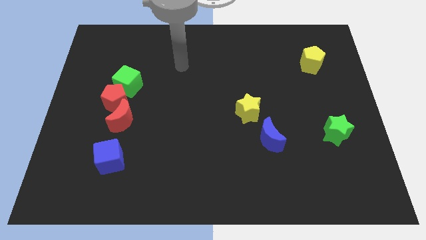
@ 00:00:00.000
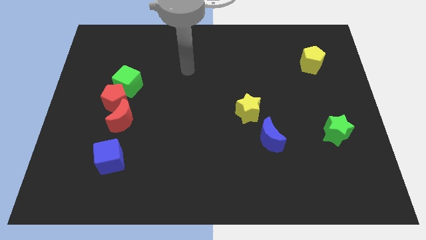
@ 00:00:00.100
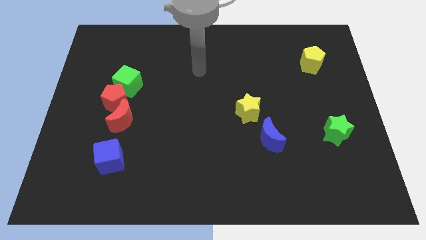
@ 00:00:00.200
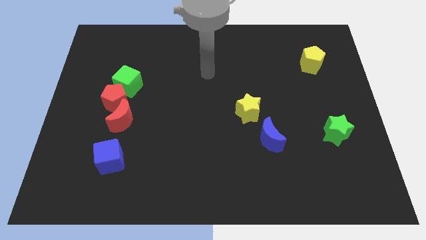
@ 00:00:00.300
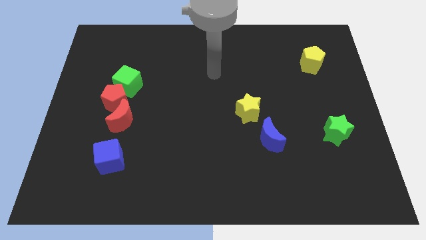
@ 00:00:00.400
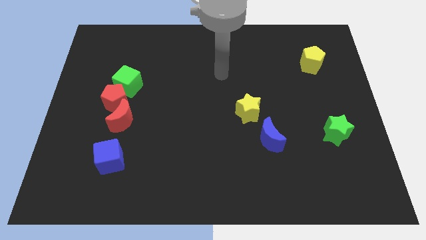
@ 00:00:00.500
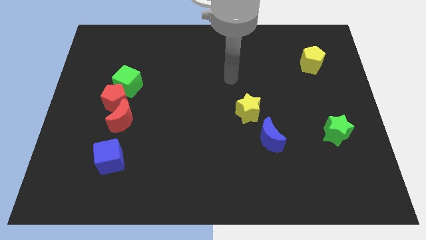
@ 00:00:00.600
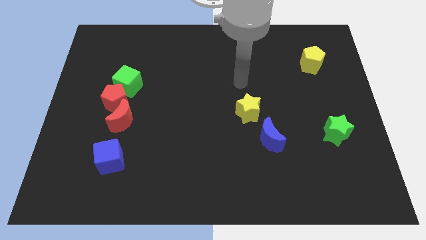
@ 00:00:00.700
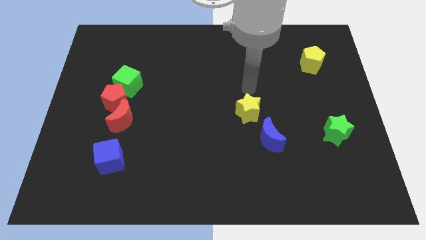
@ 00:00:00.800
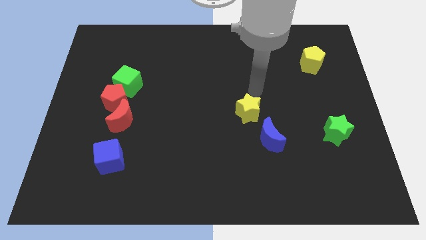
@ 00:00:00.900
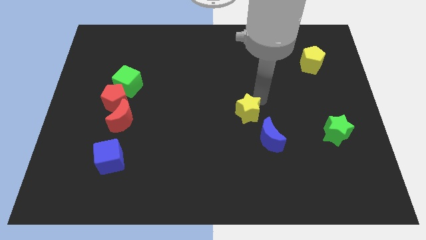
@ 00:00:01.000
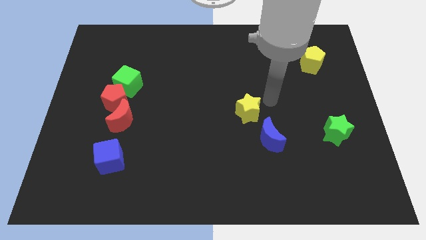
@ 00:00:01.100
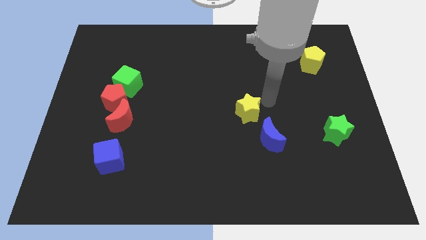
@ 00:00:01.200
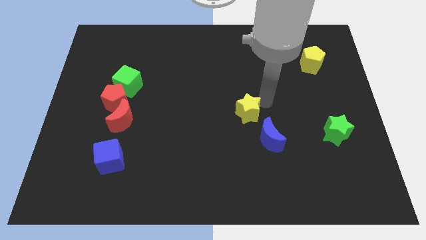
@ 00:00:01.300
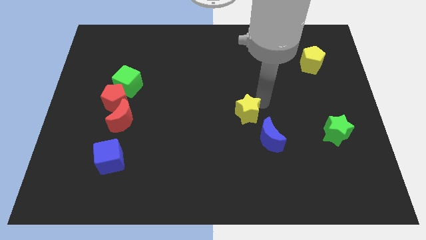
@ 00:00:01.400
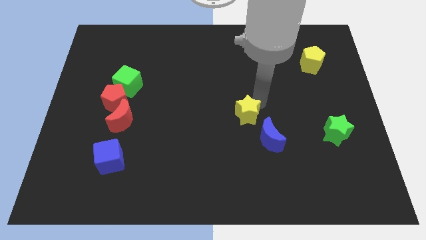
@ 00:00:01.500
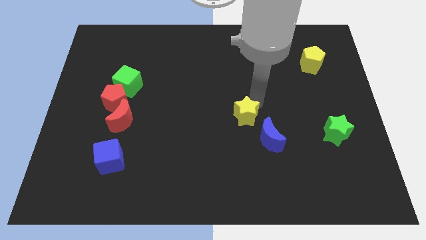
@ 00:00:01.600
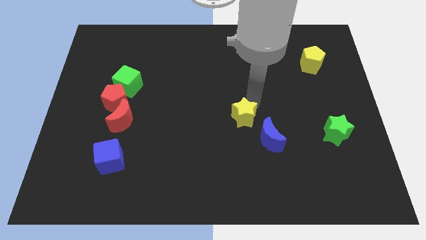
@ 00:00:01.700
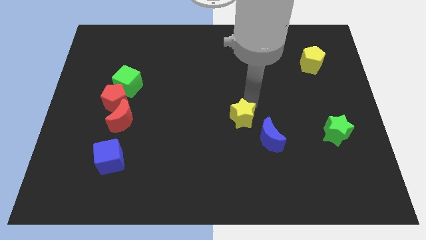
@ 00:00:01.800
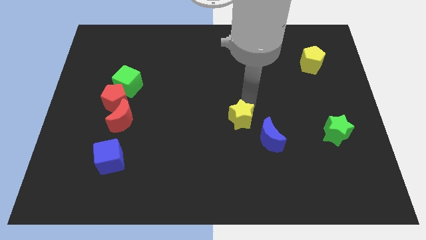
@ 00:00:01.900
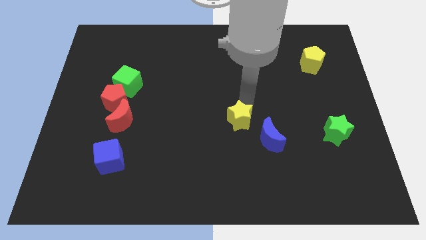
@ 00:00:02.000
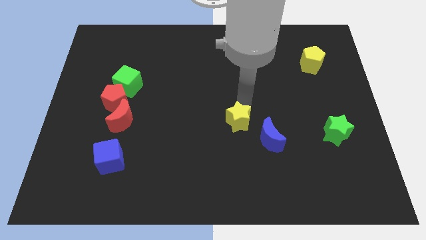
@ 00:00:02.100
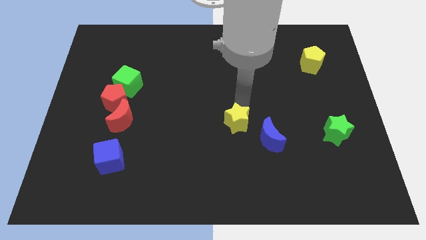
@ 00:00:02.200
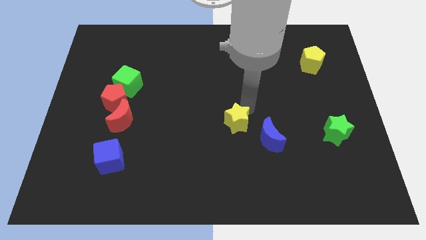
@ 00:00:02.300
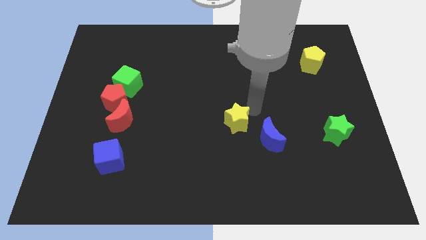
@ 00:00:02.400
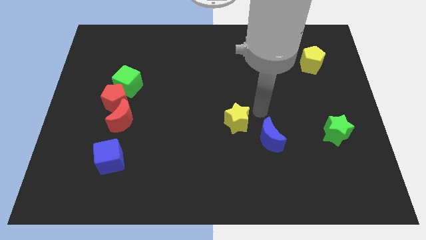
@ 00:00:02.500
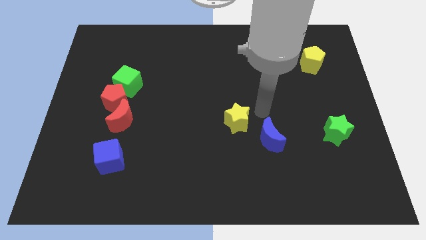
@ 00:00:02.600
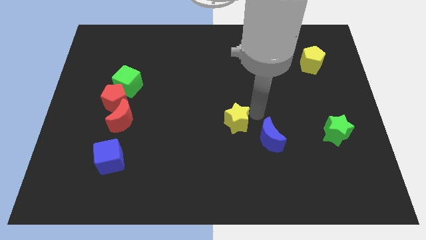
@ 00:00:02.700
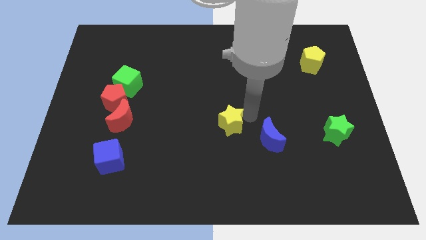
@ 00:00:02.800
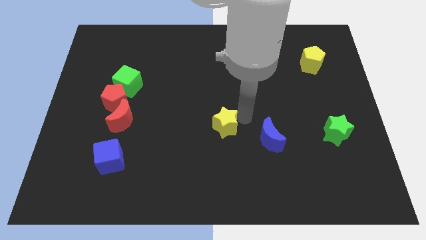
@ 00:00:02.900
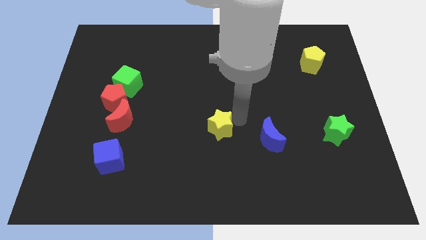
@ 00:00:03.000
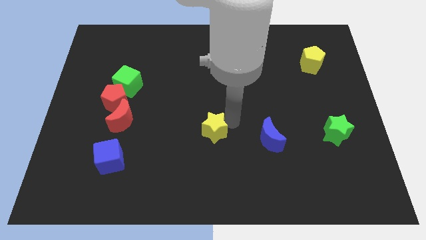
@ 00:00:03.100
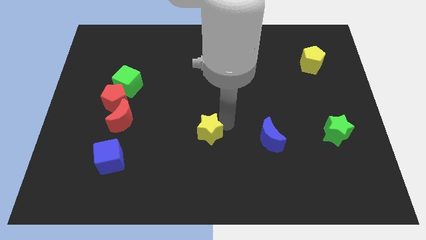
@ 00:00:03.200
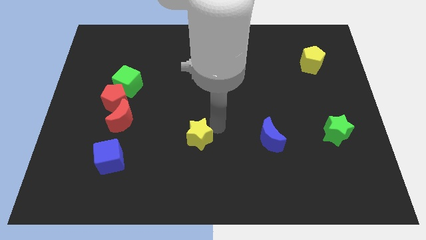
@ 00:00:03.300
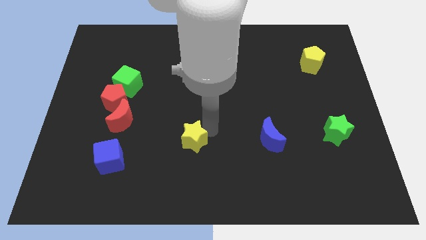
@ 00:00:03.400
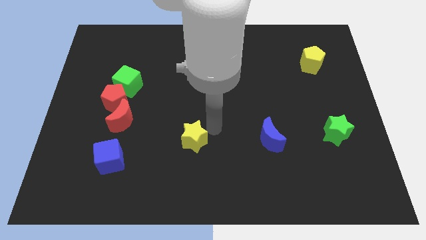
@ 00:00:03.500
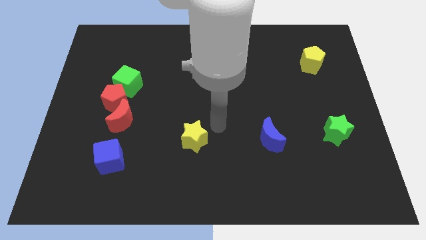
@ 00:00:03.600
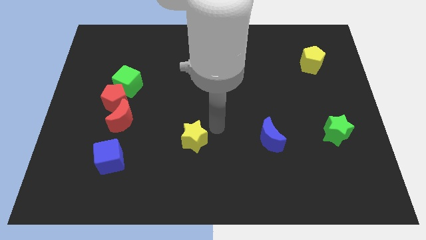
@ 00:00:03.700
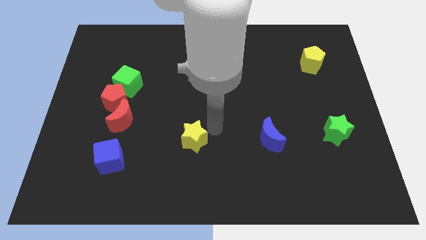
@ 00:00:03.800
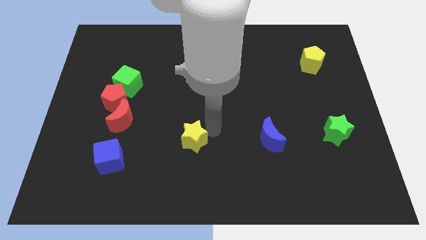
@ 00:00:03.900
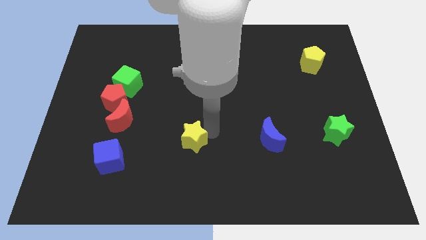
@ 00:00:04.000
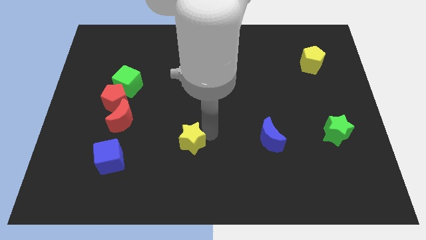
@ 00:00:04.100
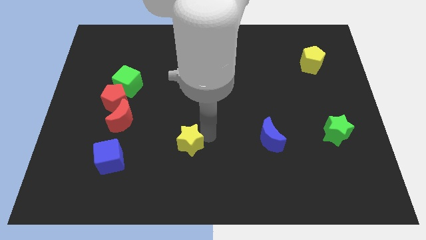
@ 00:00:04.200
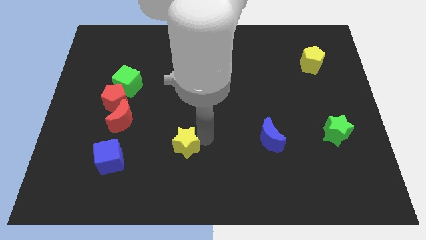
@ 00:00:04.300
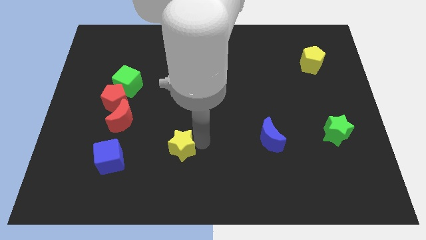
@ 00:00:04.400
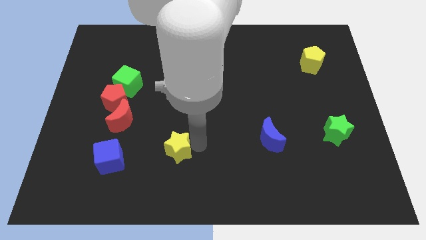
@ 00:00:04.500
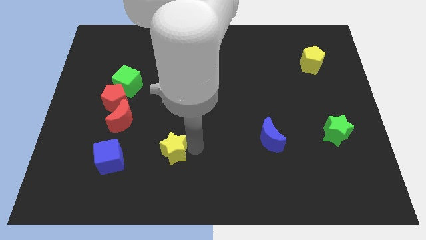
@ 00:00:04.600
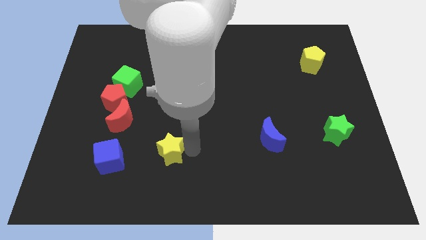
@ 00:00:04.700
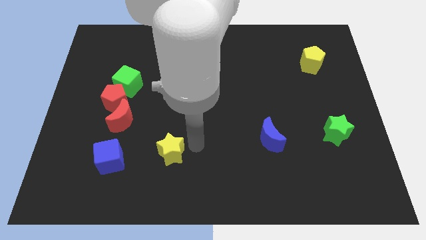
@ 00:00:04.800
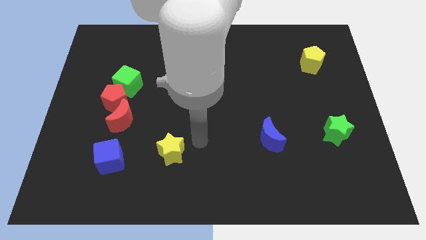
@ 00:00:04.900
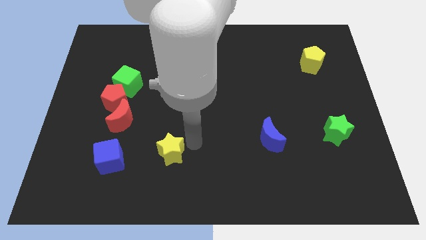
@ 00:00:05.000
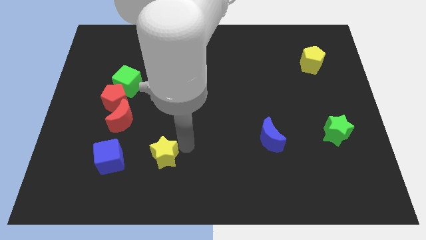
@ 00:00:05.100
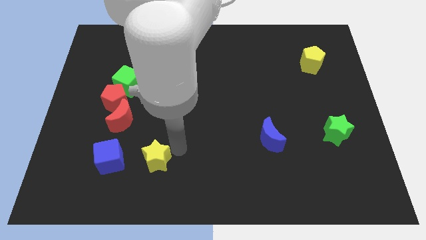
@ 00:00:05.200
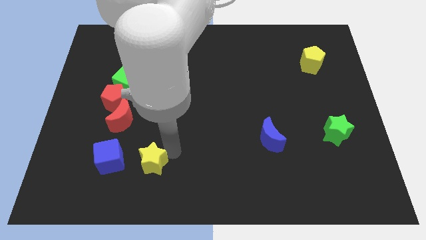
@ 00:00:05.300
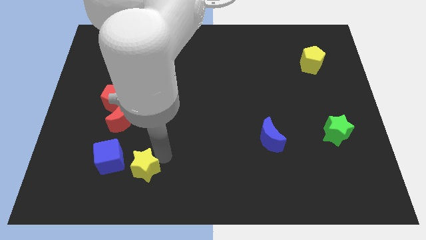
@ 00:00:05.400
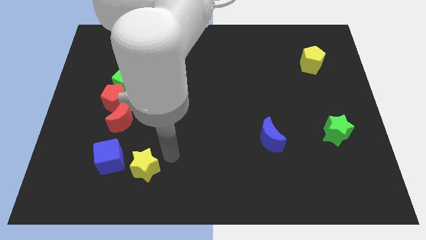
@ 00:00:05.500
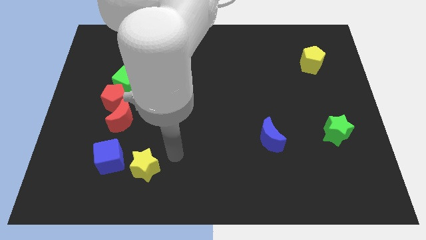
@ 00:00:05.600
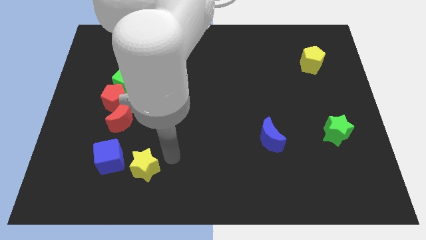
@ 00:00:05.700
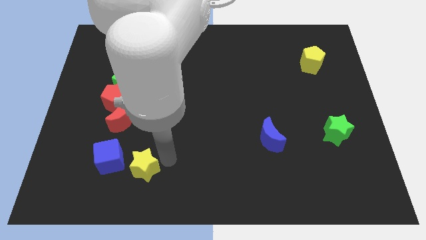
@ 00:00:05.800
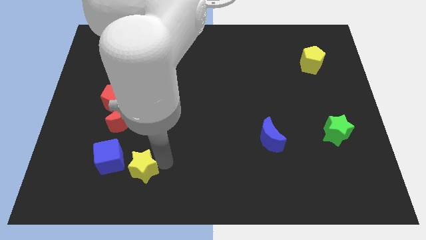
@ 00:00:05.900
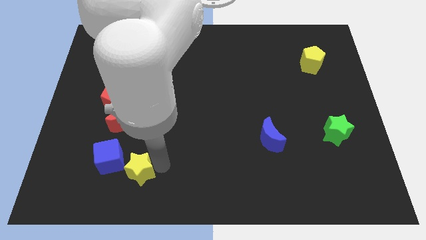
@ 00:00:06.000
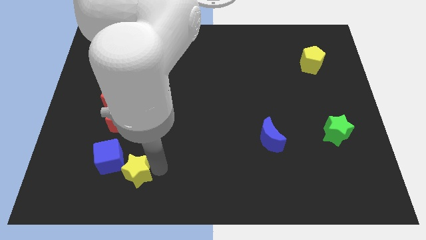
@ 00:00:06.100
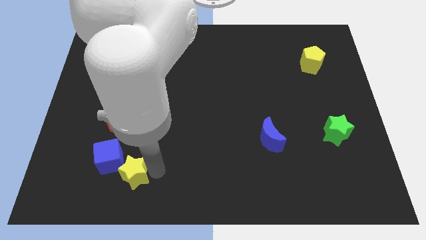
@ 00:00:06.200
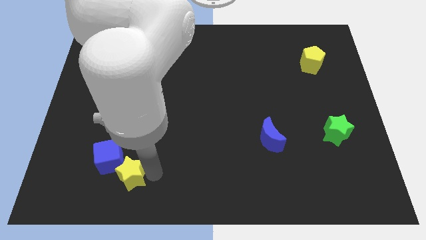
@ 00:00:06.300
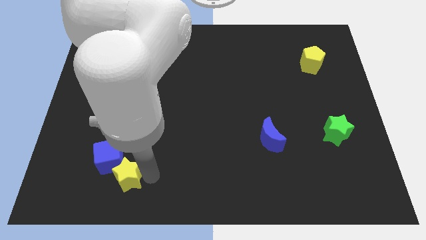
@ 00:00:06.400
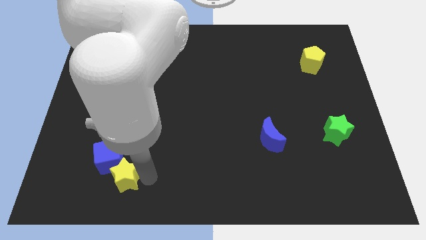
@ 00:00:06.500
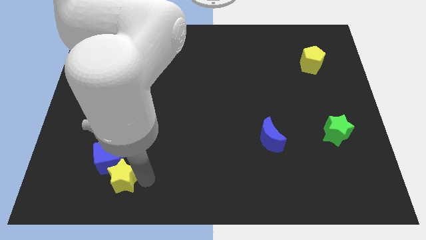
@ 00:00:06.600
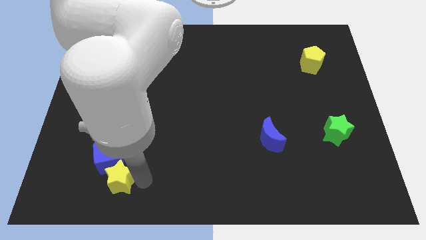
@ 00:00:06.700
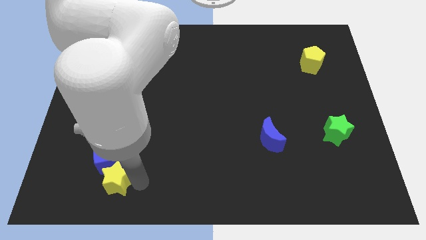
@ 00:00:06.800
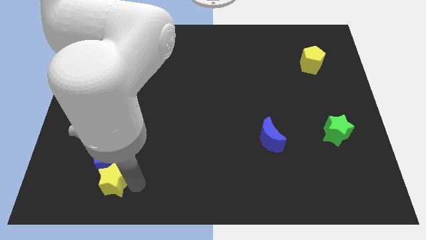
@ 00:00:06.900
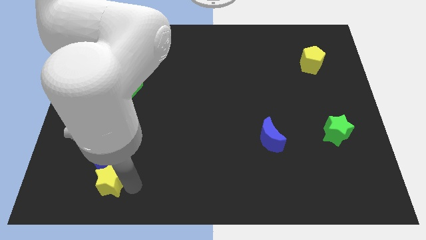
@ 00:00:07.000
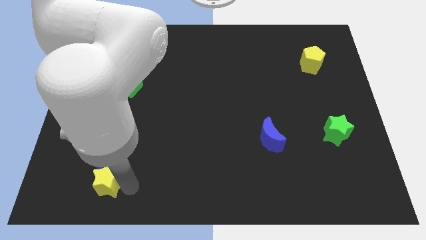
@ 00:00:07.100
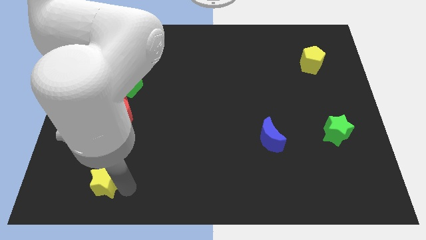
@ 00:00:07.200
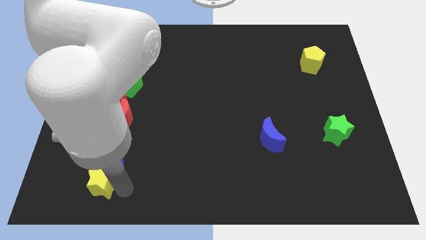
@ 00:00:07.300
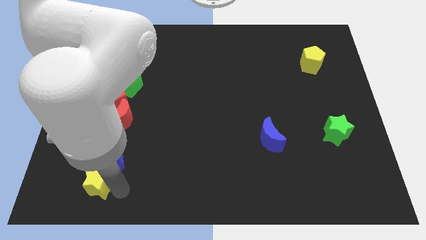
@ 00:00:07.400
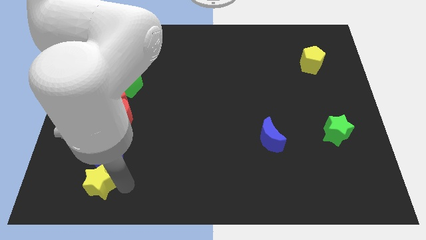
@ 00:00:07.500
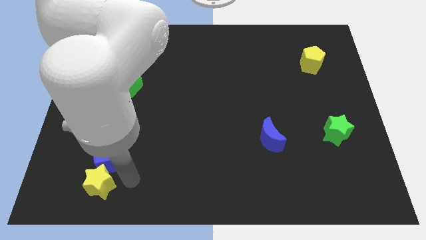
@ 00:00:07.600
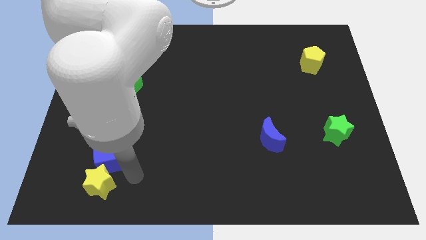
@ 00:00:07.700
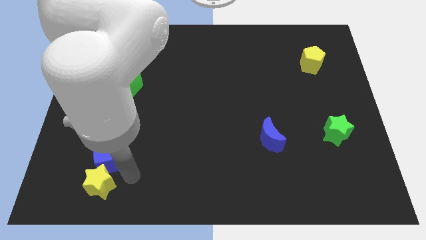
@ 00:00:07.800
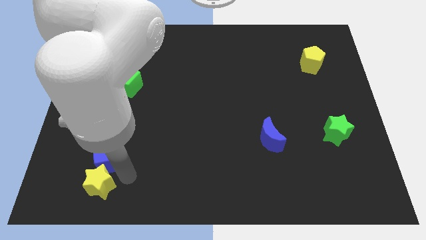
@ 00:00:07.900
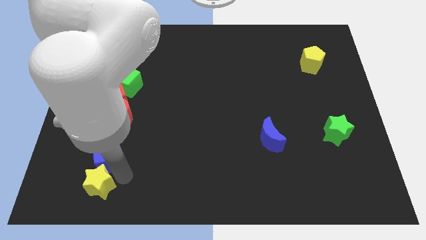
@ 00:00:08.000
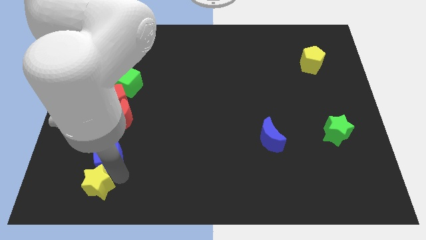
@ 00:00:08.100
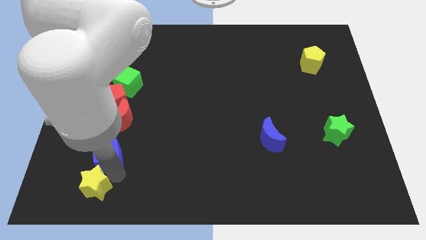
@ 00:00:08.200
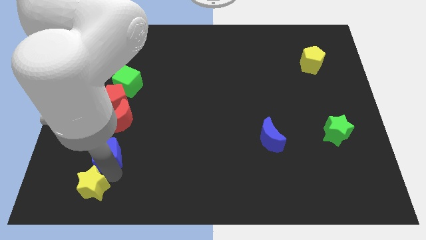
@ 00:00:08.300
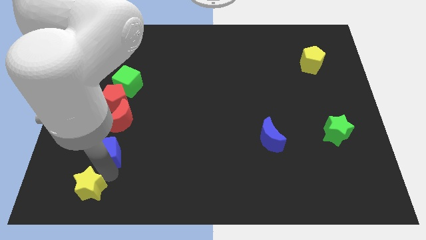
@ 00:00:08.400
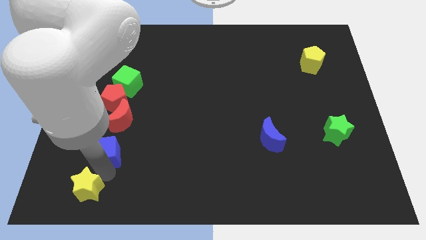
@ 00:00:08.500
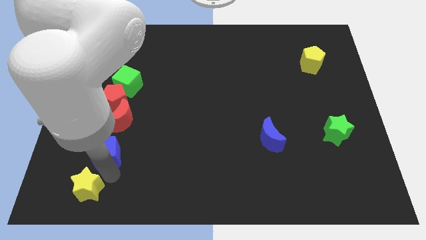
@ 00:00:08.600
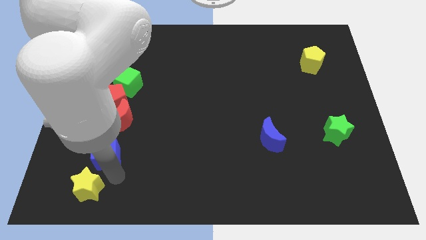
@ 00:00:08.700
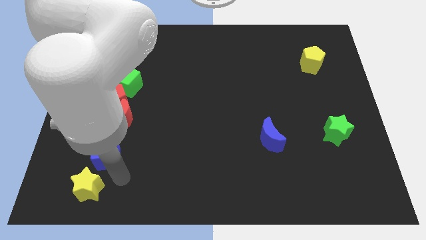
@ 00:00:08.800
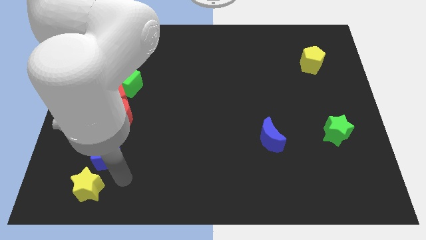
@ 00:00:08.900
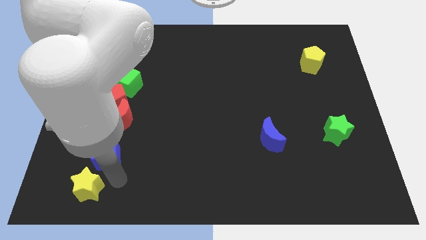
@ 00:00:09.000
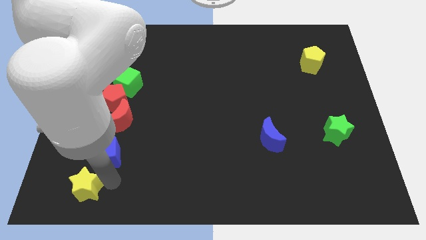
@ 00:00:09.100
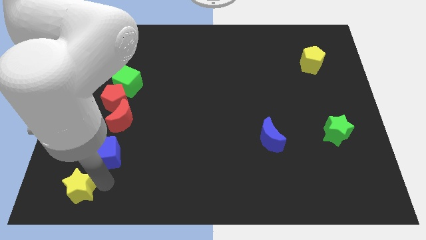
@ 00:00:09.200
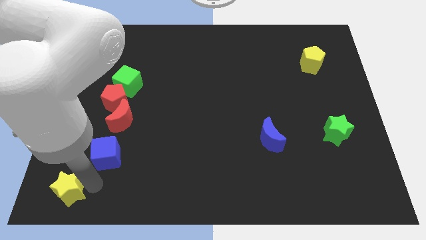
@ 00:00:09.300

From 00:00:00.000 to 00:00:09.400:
slide the yellow star to the bottom left
